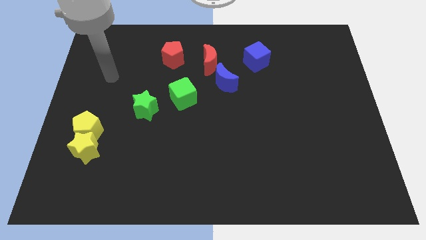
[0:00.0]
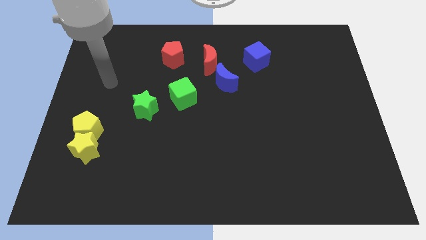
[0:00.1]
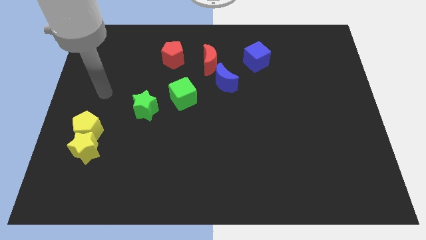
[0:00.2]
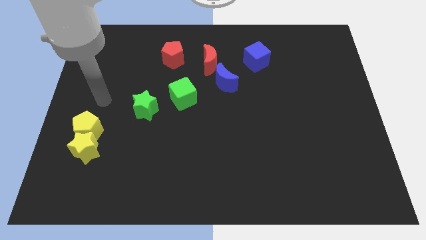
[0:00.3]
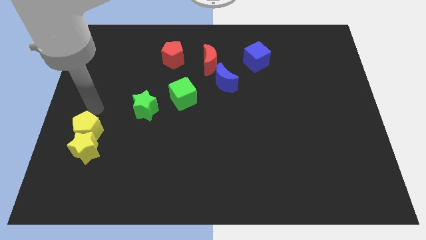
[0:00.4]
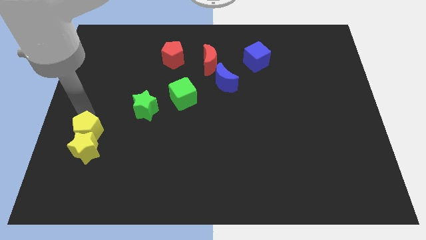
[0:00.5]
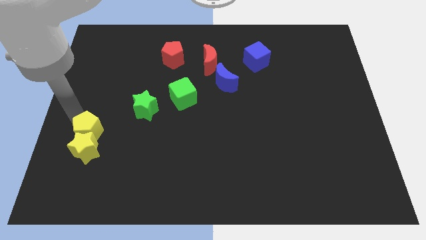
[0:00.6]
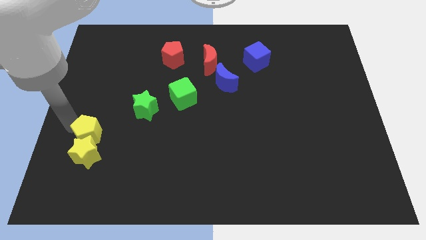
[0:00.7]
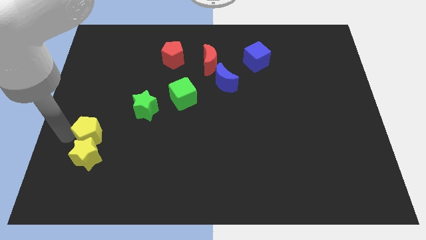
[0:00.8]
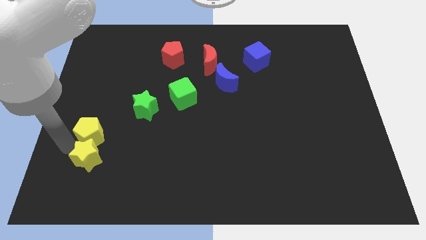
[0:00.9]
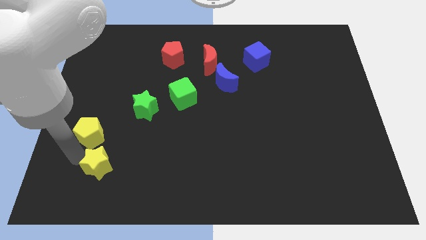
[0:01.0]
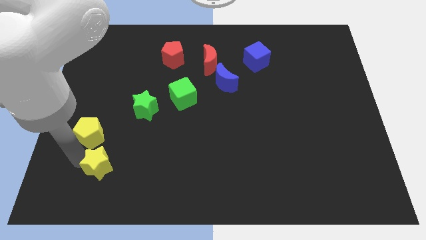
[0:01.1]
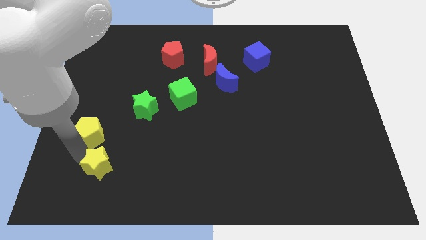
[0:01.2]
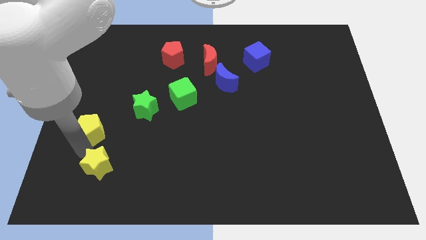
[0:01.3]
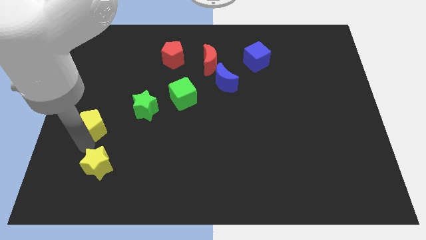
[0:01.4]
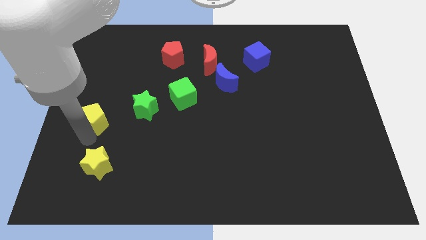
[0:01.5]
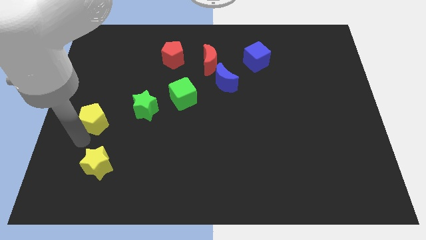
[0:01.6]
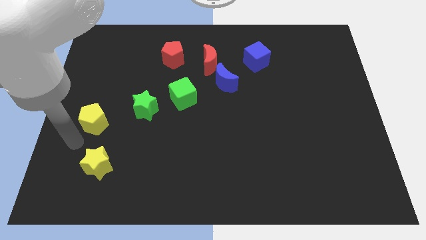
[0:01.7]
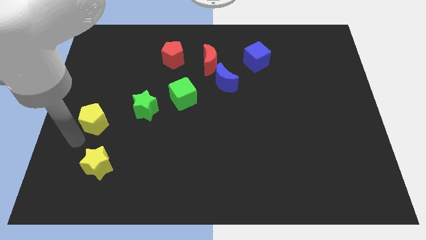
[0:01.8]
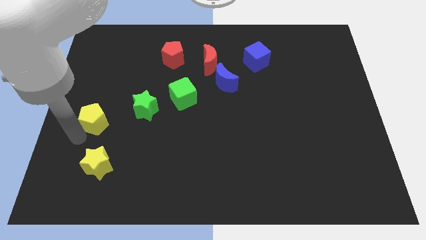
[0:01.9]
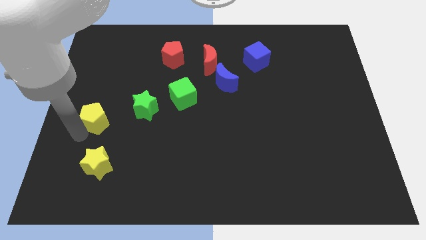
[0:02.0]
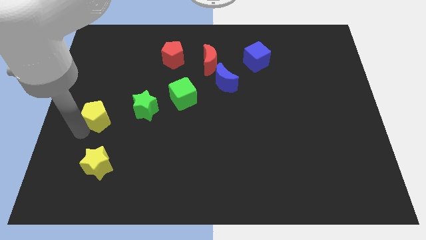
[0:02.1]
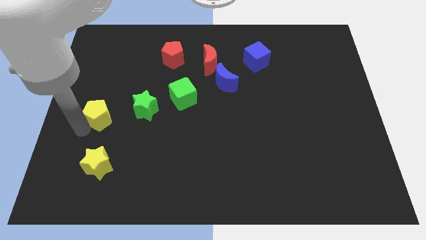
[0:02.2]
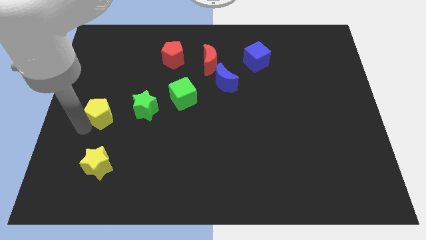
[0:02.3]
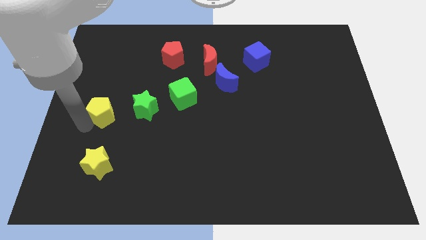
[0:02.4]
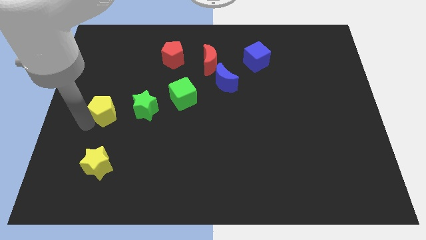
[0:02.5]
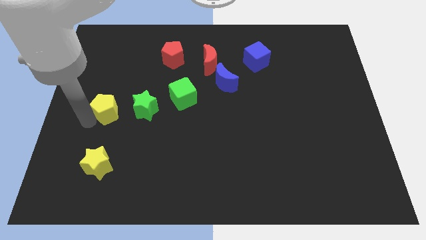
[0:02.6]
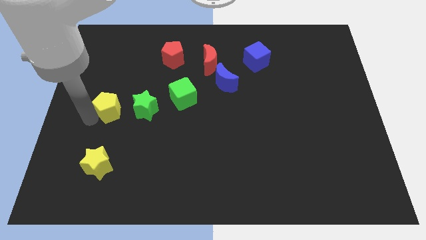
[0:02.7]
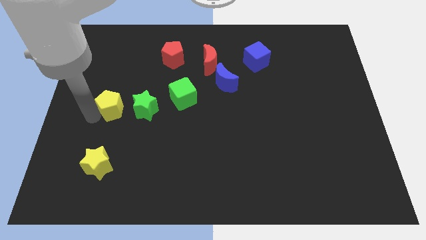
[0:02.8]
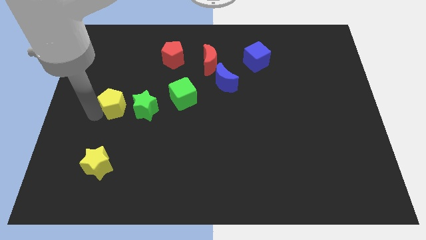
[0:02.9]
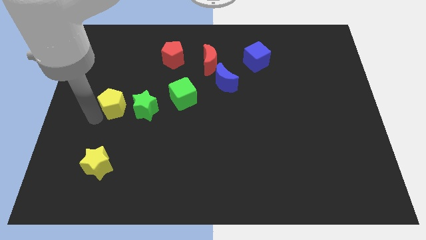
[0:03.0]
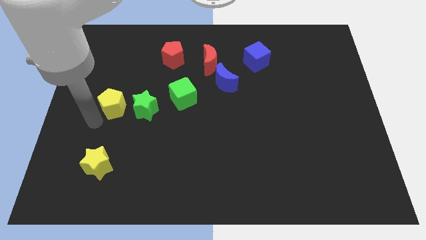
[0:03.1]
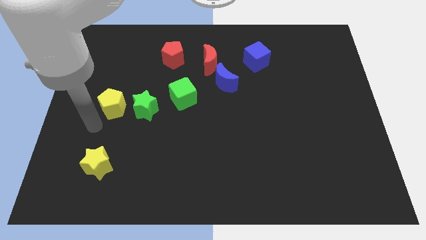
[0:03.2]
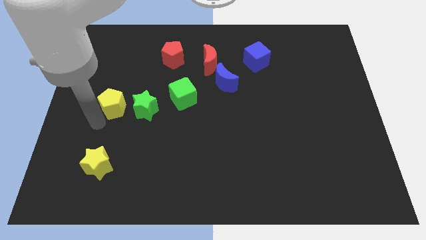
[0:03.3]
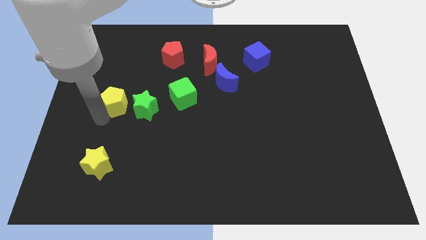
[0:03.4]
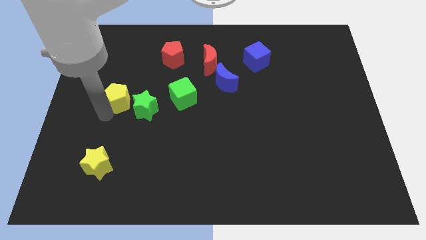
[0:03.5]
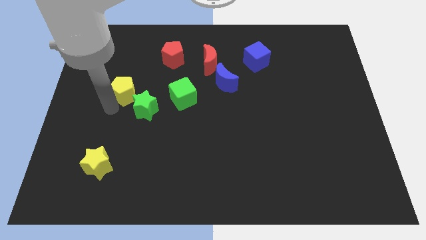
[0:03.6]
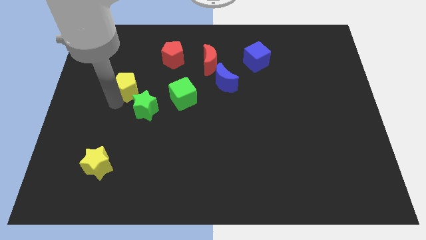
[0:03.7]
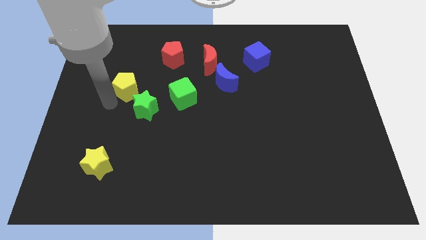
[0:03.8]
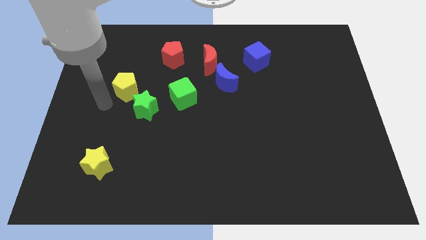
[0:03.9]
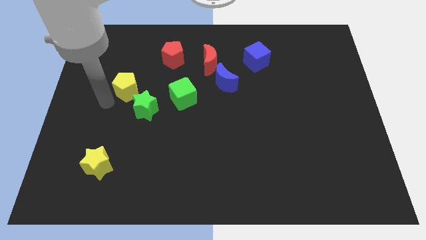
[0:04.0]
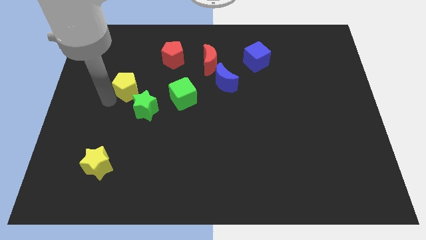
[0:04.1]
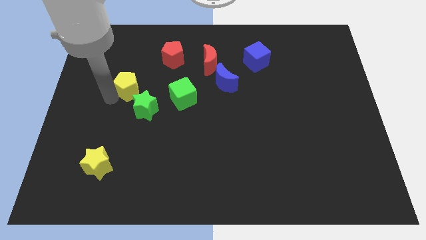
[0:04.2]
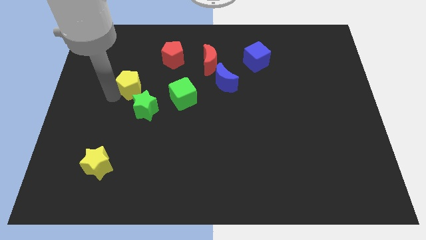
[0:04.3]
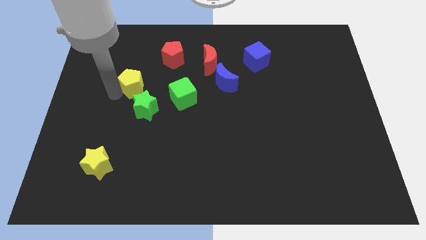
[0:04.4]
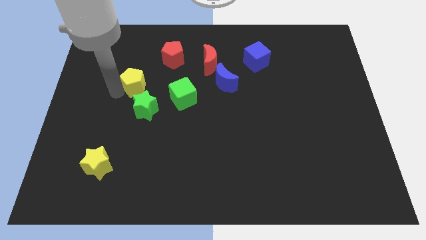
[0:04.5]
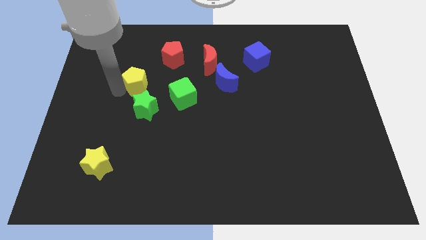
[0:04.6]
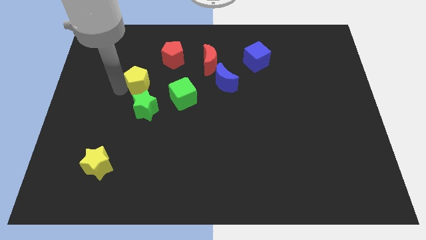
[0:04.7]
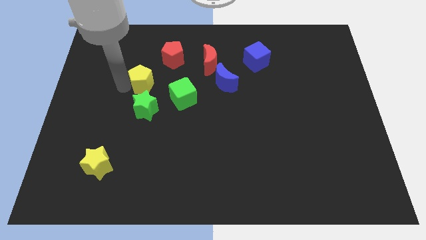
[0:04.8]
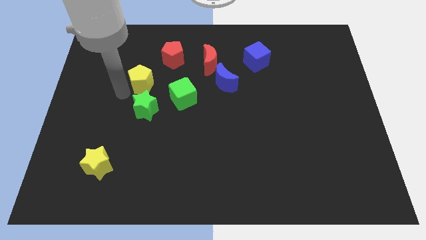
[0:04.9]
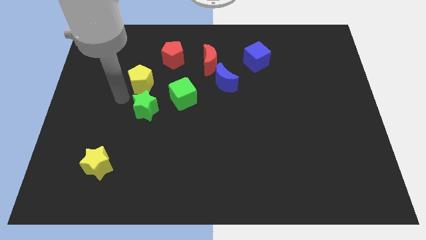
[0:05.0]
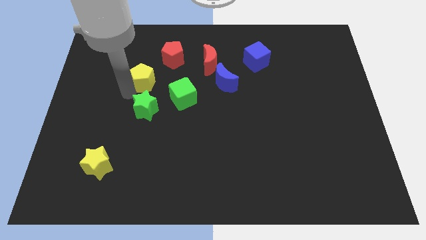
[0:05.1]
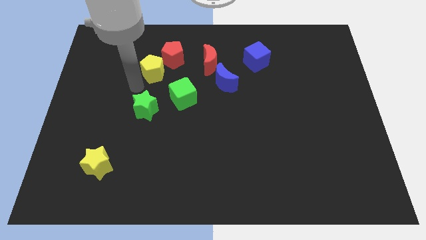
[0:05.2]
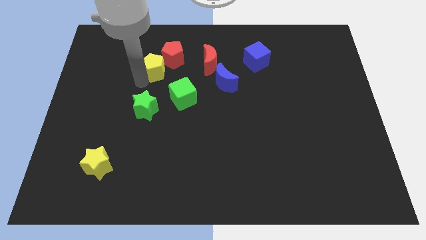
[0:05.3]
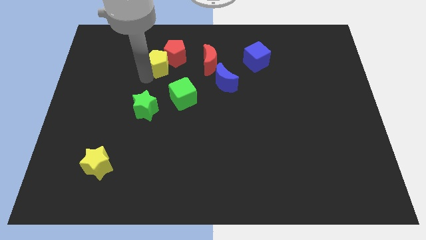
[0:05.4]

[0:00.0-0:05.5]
push the yellow pentagon to the red pentagon

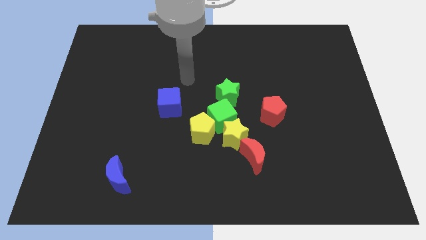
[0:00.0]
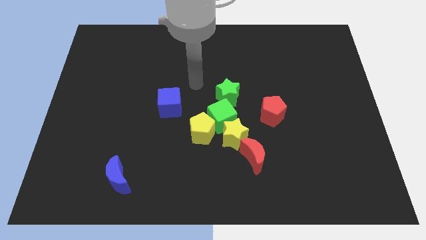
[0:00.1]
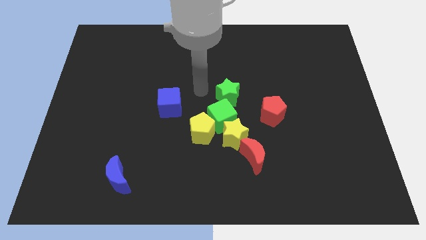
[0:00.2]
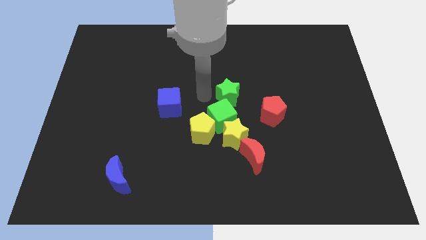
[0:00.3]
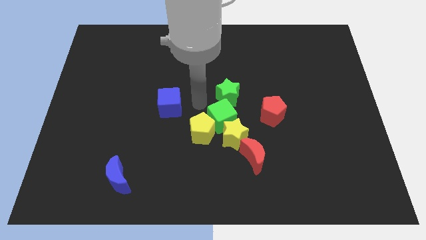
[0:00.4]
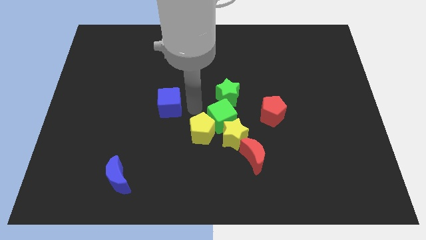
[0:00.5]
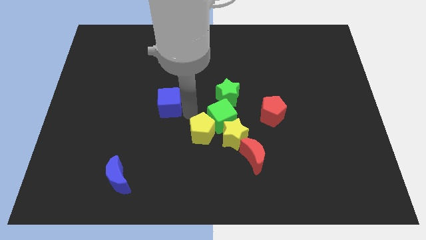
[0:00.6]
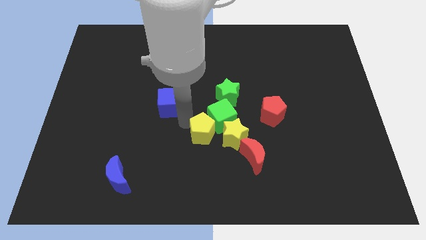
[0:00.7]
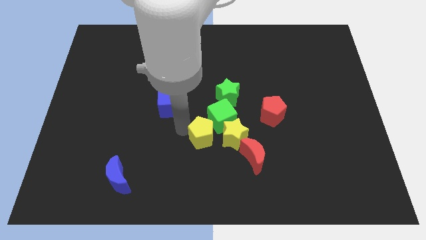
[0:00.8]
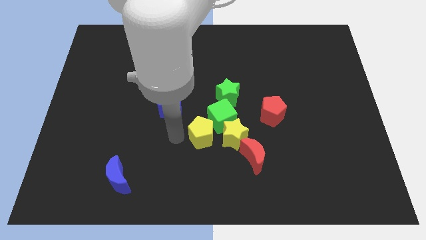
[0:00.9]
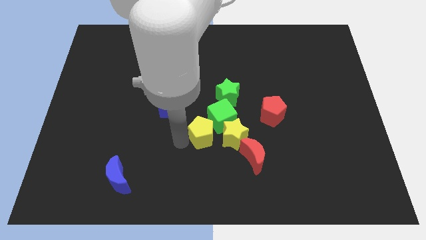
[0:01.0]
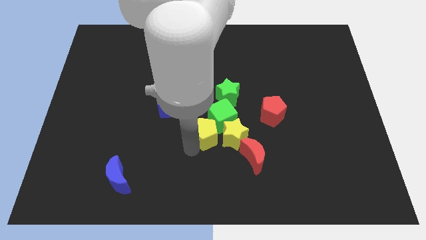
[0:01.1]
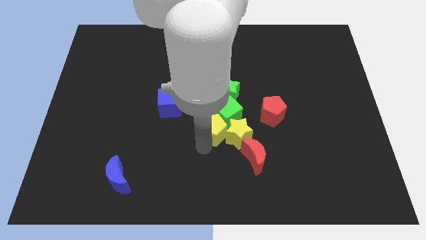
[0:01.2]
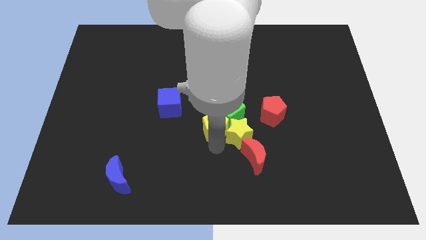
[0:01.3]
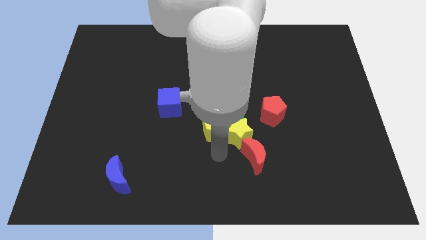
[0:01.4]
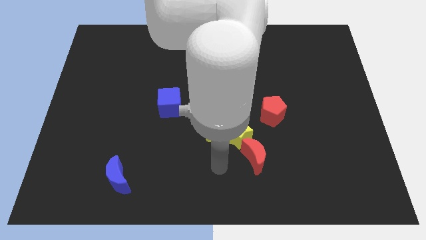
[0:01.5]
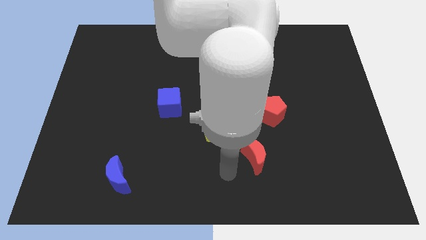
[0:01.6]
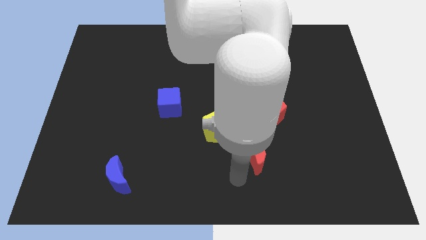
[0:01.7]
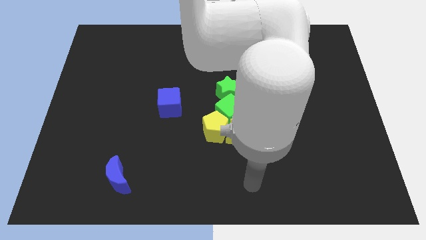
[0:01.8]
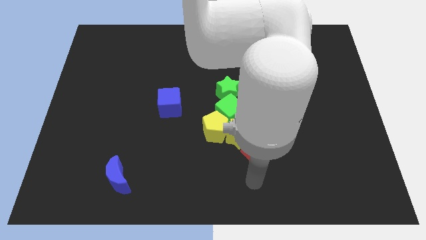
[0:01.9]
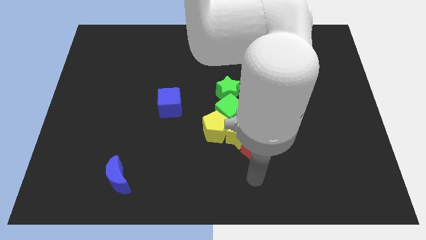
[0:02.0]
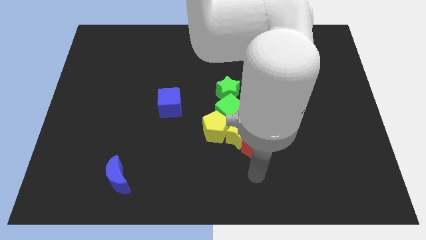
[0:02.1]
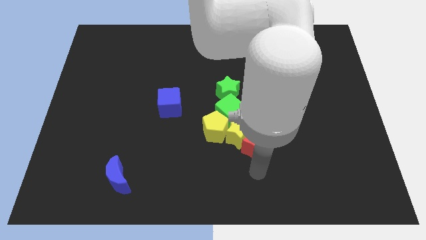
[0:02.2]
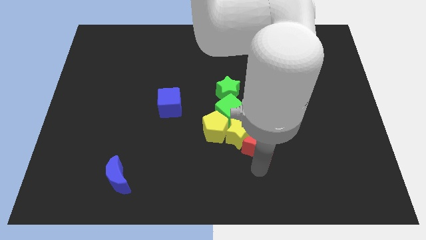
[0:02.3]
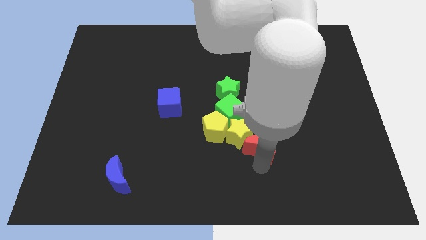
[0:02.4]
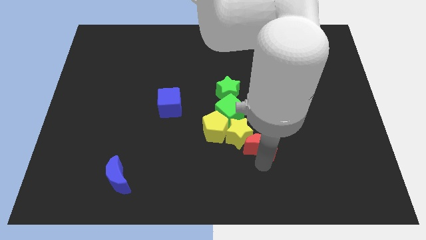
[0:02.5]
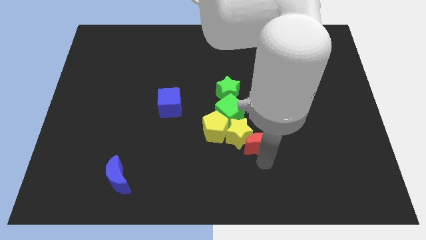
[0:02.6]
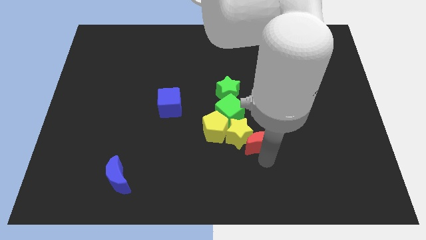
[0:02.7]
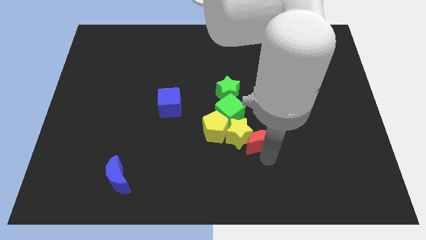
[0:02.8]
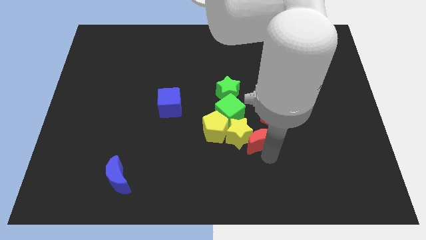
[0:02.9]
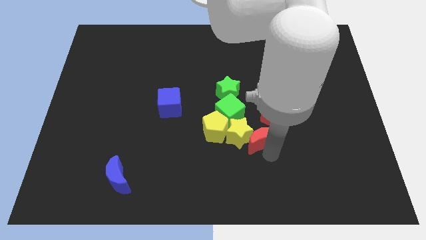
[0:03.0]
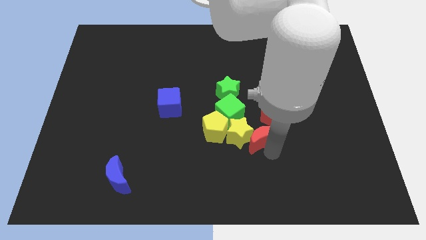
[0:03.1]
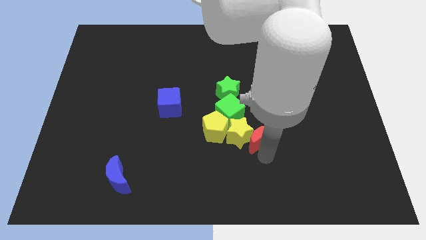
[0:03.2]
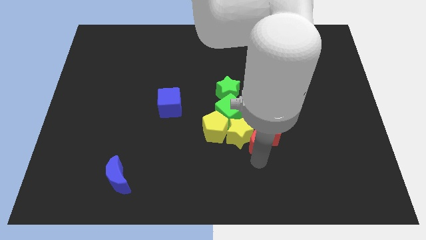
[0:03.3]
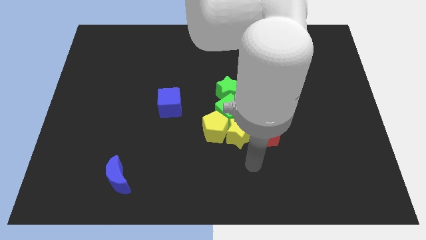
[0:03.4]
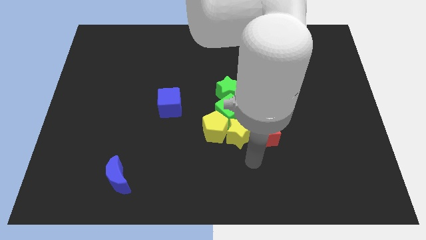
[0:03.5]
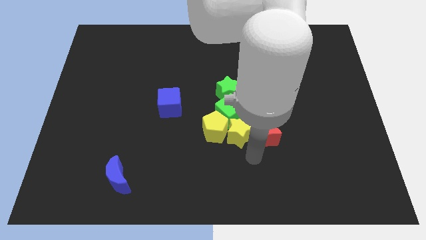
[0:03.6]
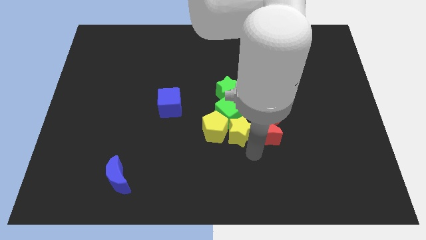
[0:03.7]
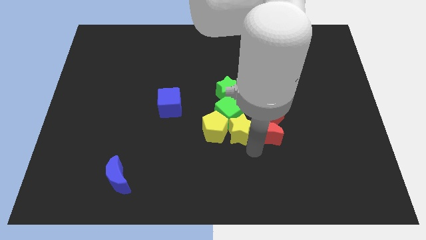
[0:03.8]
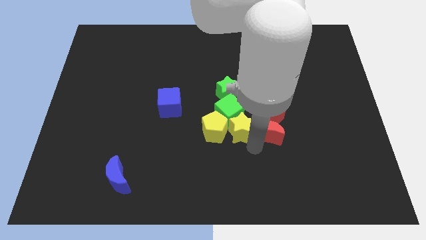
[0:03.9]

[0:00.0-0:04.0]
move the red moon close to the red pentagon
